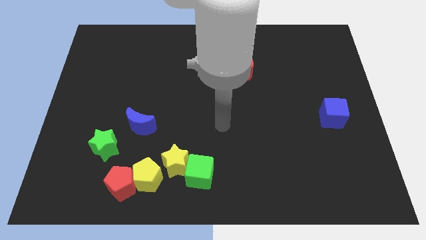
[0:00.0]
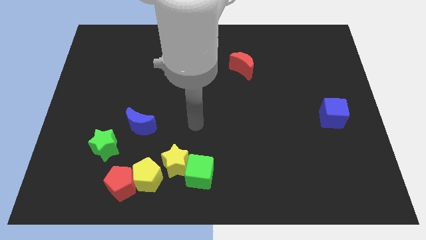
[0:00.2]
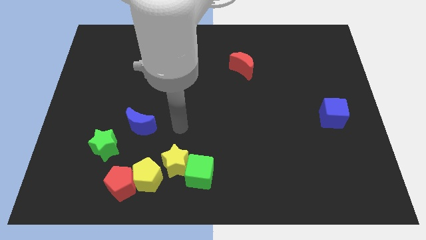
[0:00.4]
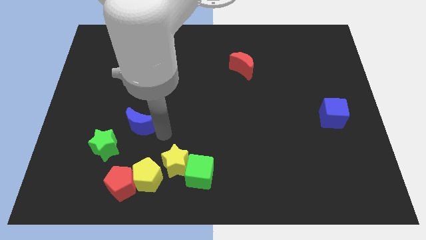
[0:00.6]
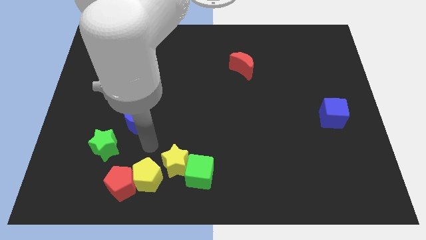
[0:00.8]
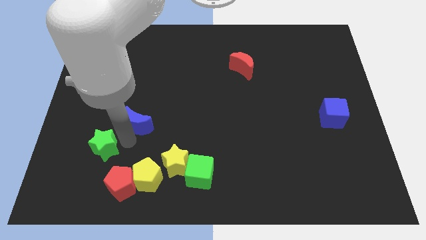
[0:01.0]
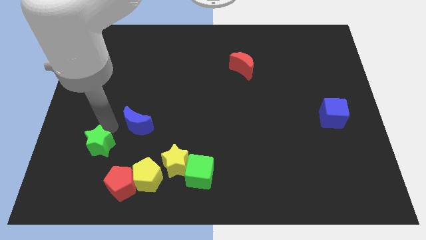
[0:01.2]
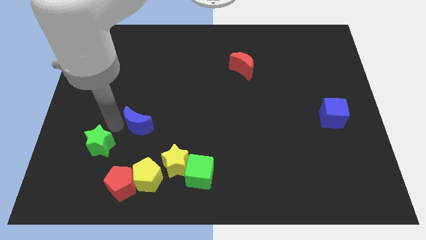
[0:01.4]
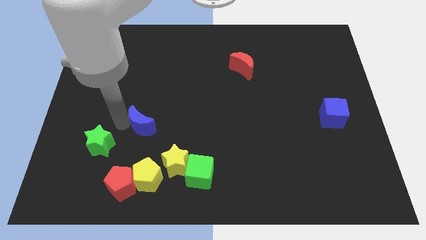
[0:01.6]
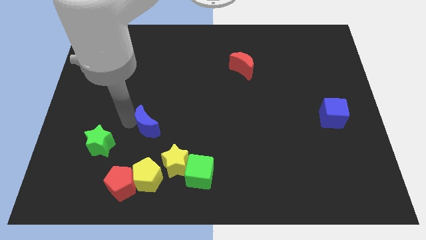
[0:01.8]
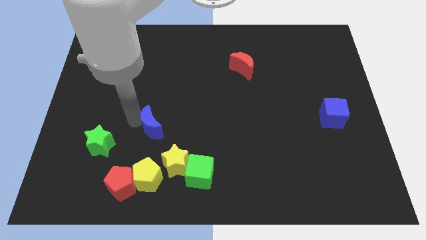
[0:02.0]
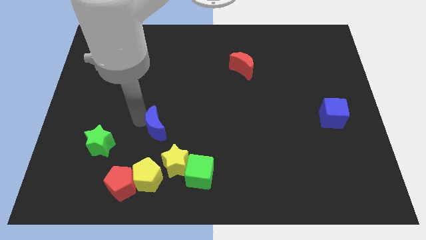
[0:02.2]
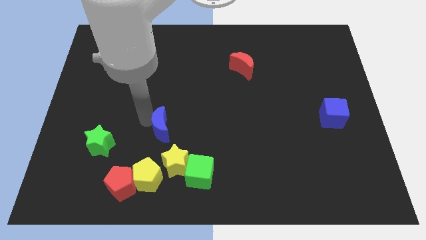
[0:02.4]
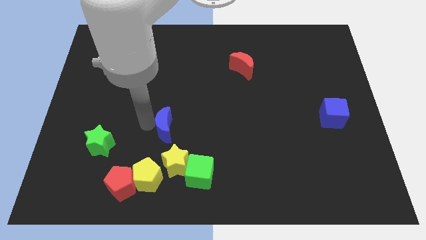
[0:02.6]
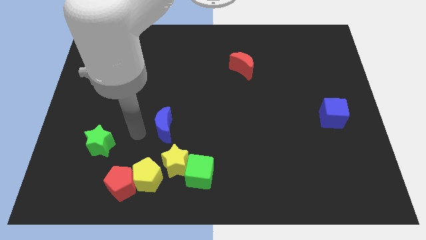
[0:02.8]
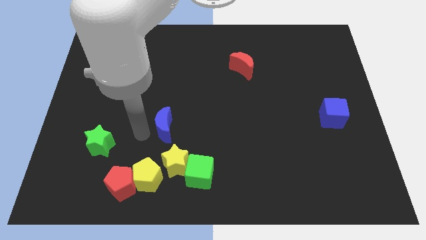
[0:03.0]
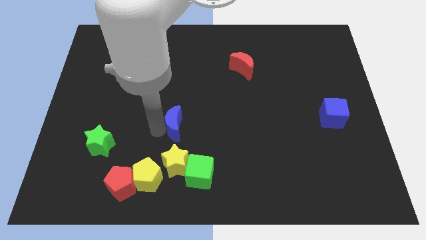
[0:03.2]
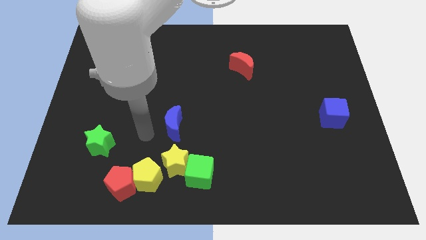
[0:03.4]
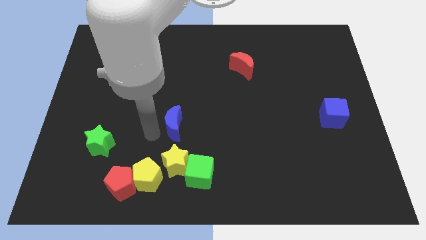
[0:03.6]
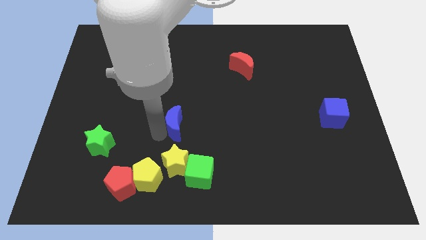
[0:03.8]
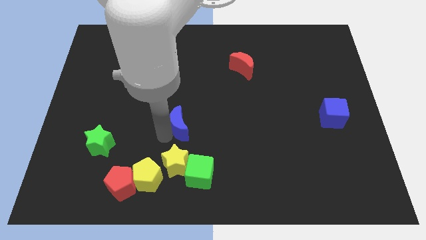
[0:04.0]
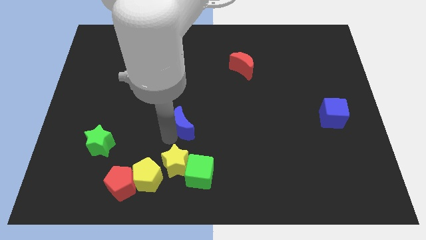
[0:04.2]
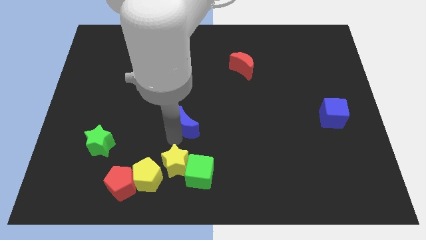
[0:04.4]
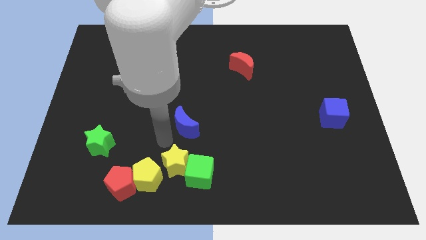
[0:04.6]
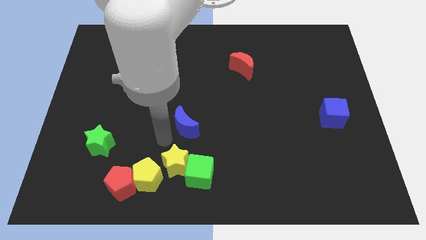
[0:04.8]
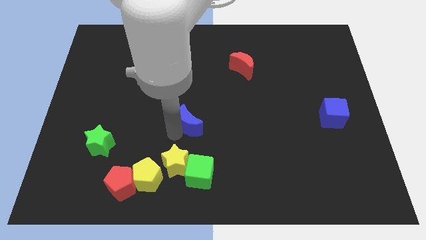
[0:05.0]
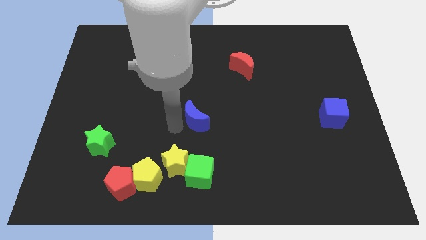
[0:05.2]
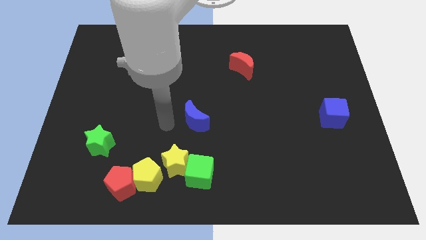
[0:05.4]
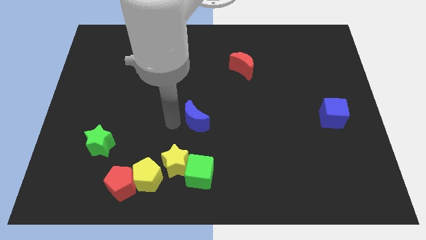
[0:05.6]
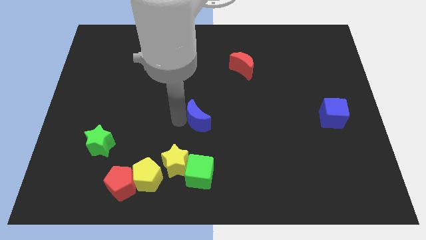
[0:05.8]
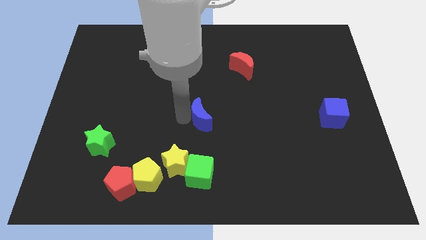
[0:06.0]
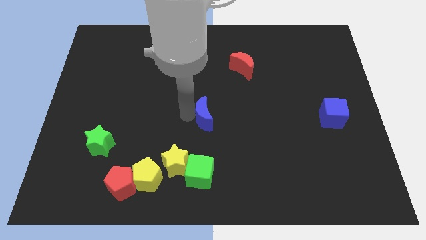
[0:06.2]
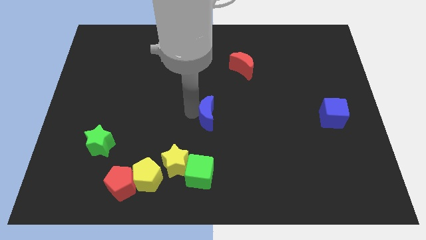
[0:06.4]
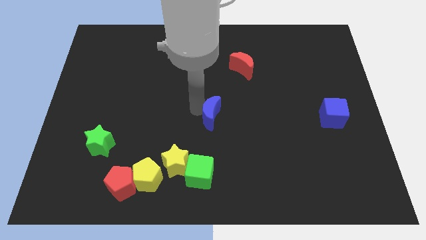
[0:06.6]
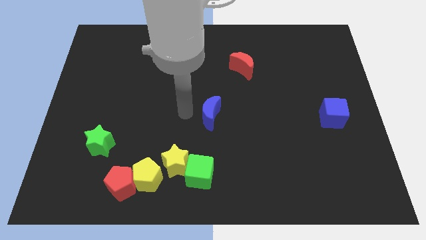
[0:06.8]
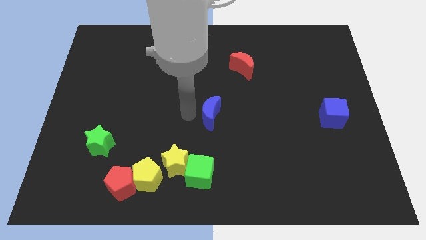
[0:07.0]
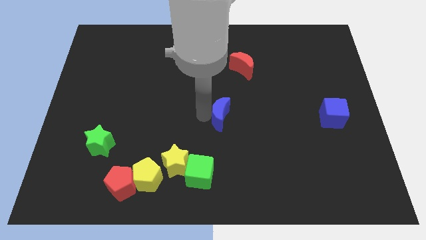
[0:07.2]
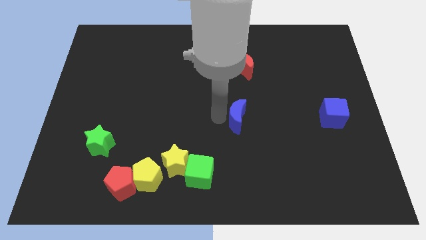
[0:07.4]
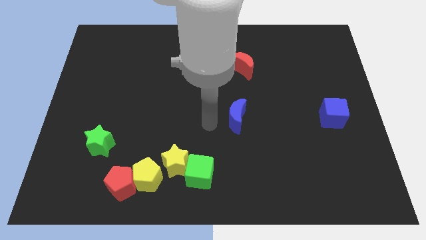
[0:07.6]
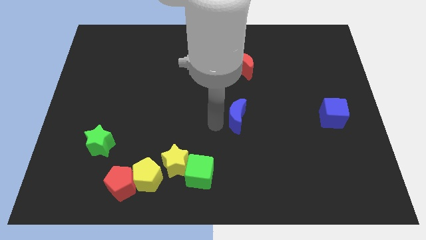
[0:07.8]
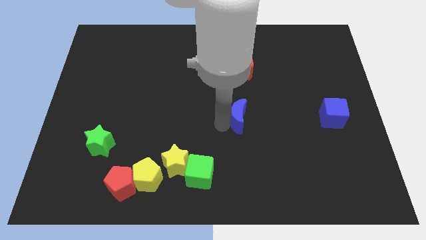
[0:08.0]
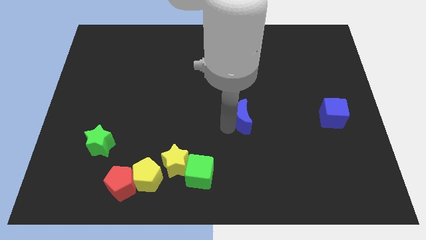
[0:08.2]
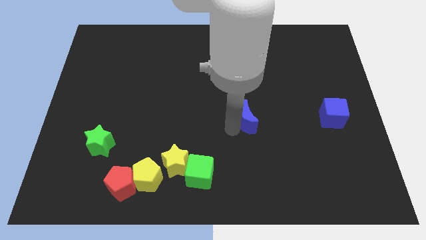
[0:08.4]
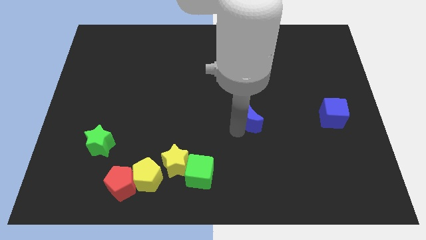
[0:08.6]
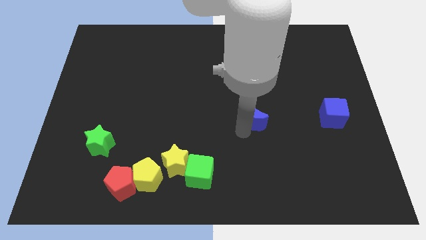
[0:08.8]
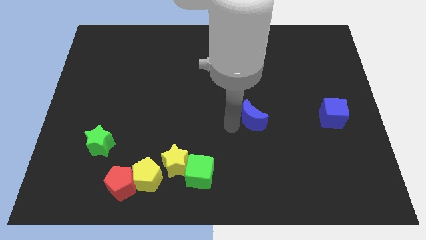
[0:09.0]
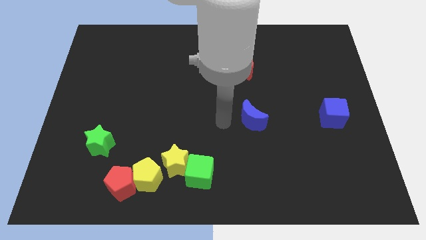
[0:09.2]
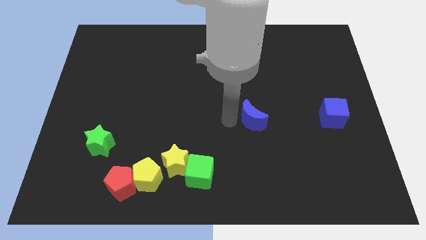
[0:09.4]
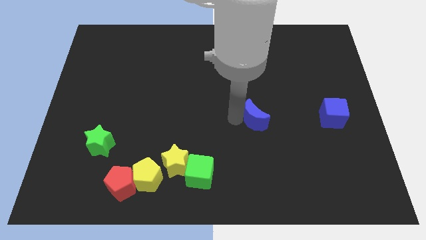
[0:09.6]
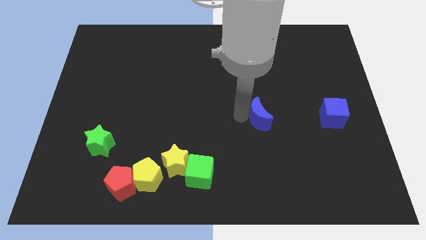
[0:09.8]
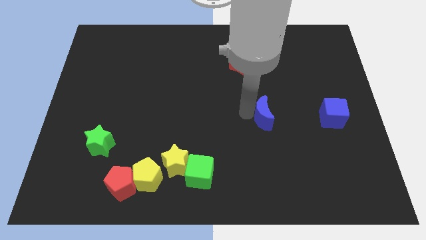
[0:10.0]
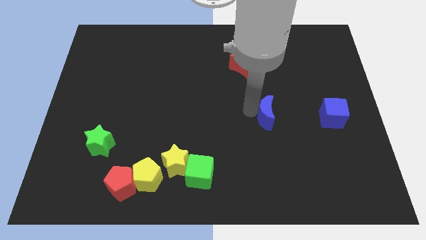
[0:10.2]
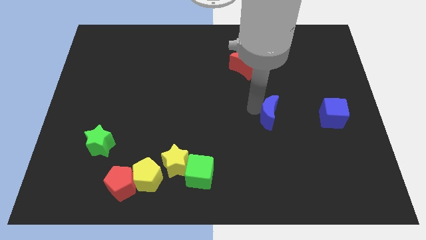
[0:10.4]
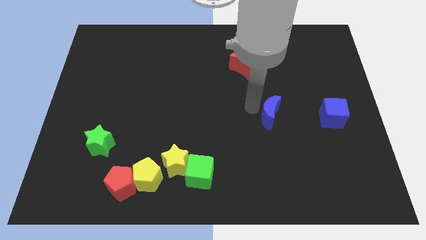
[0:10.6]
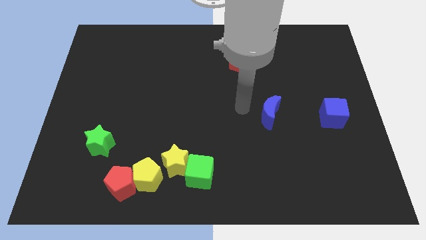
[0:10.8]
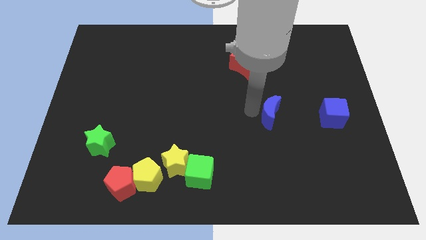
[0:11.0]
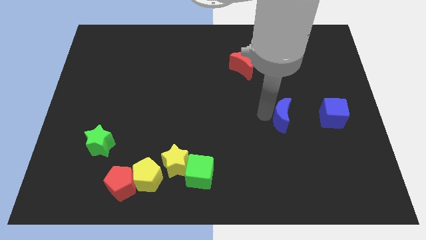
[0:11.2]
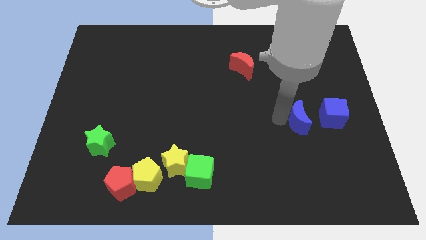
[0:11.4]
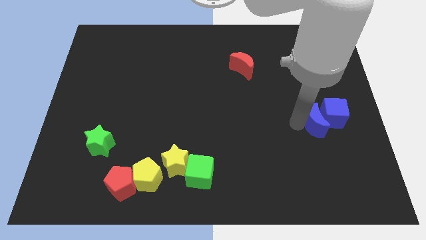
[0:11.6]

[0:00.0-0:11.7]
slide the blue moon next to the blue cube
